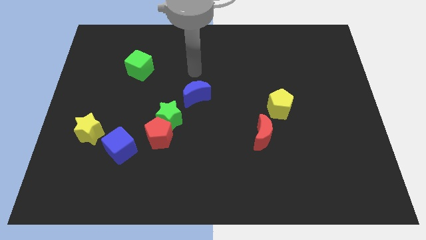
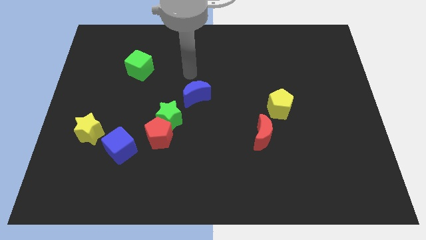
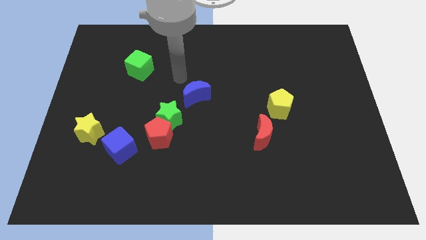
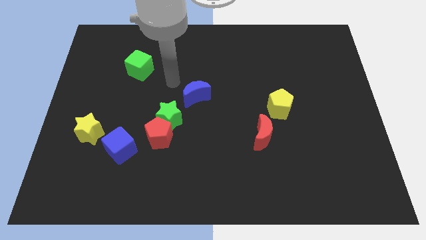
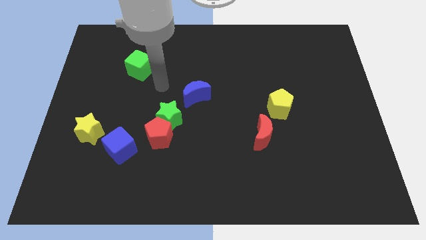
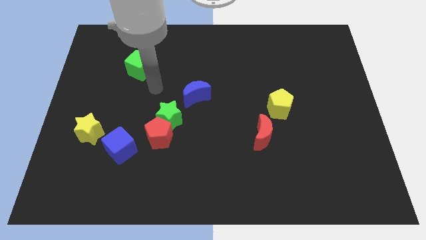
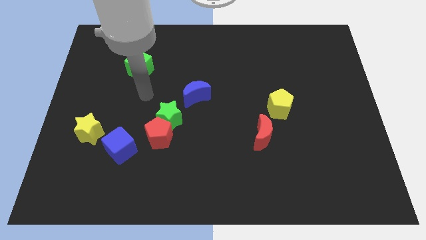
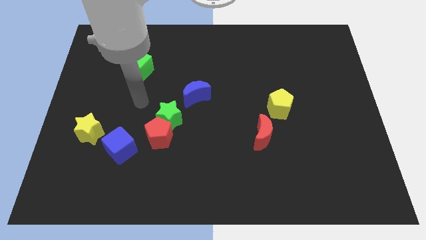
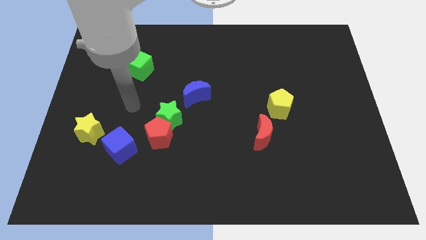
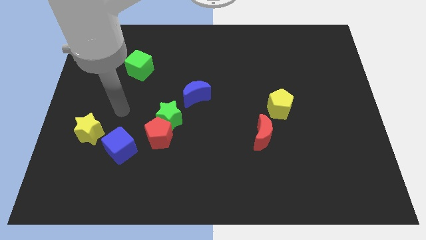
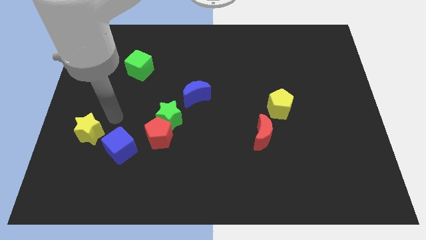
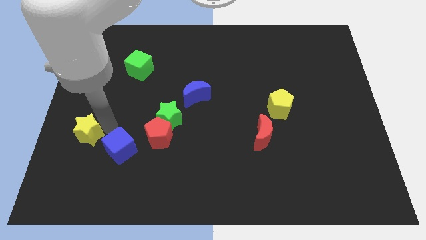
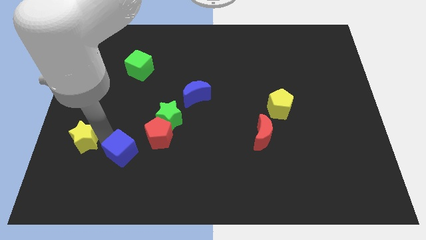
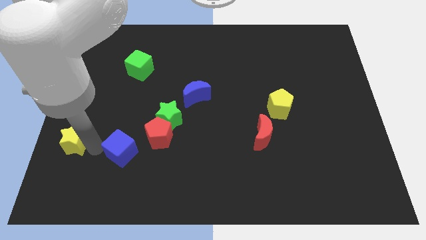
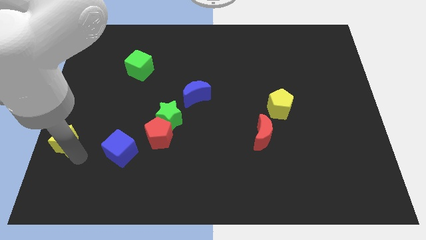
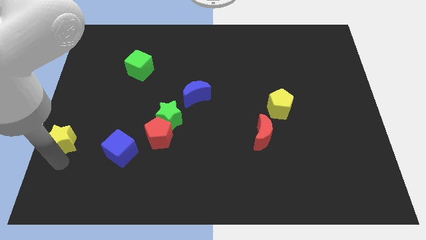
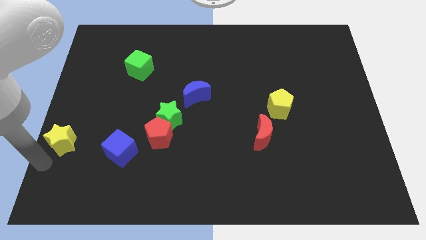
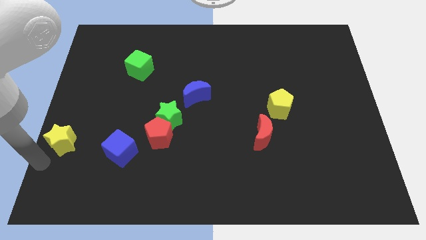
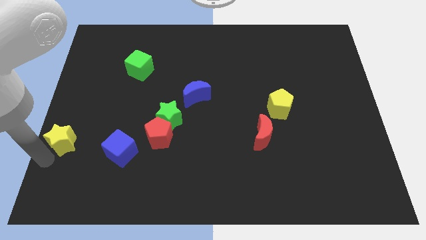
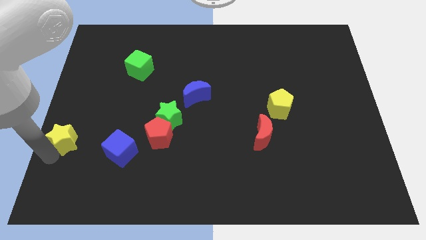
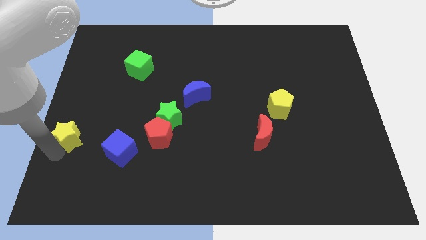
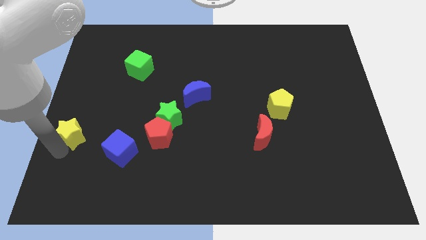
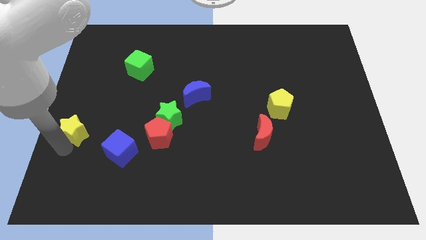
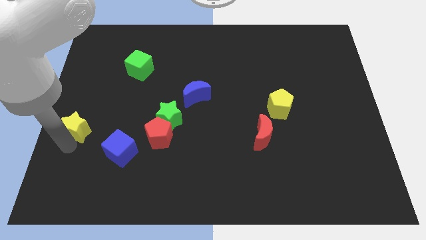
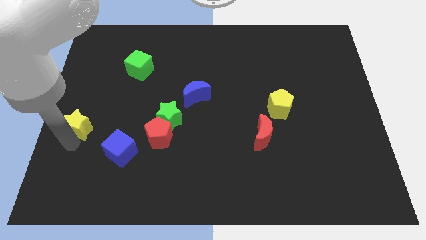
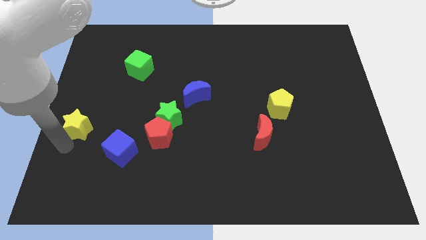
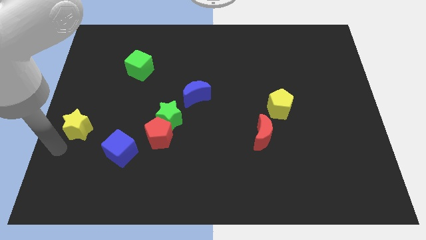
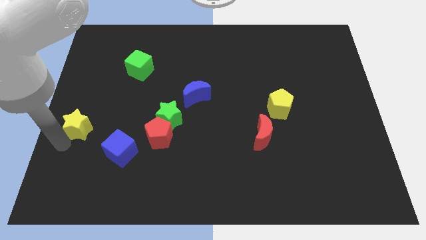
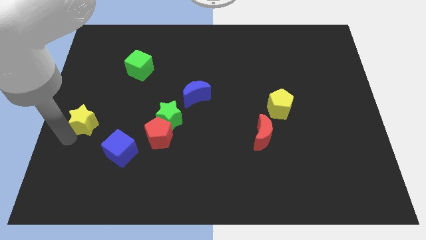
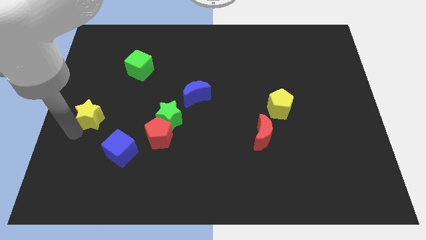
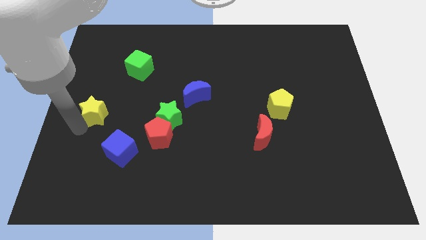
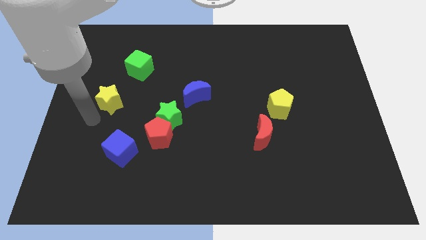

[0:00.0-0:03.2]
slide the yellow star slightly up

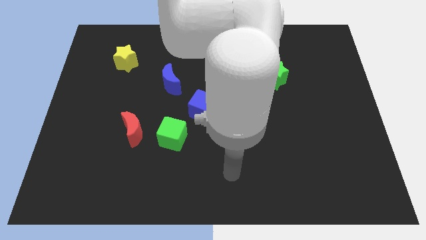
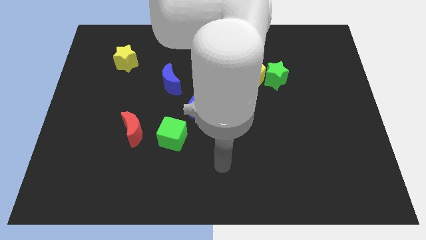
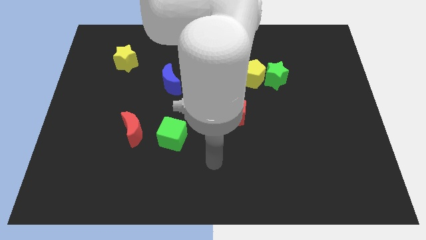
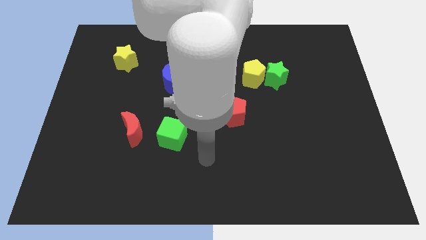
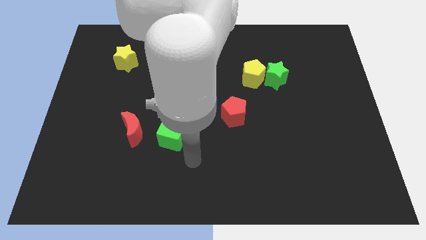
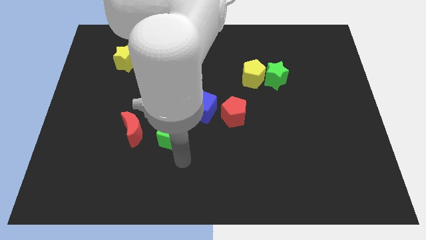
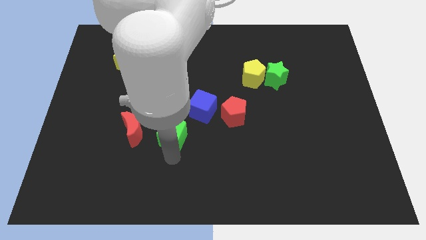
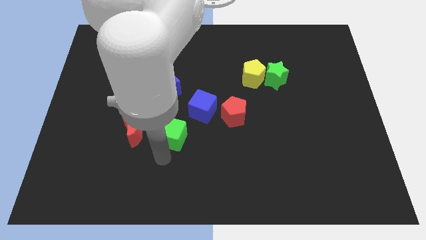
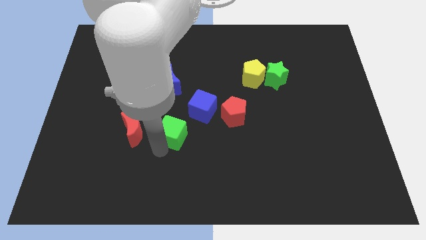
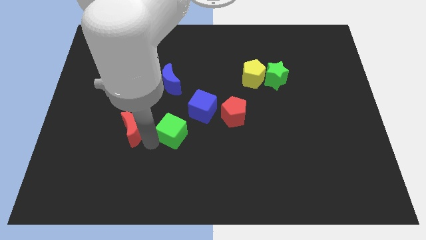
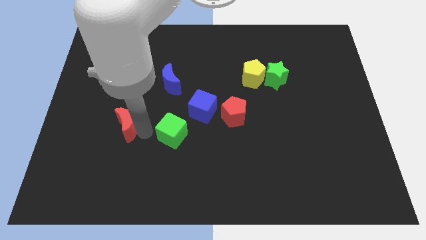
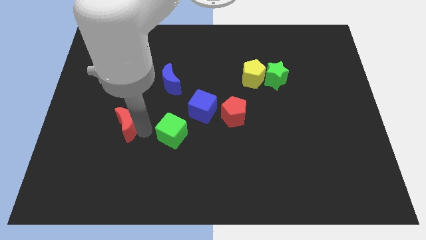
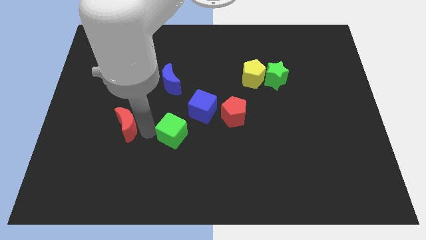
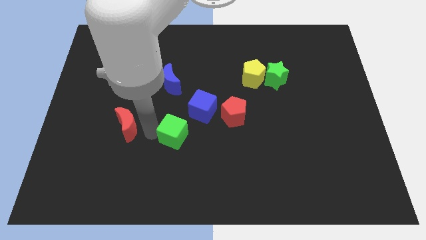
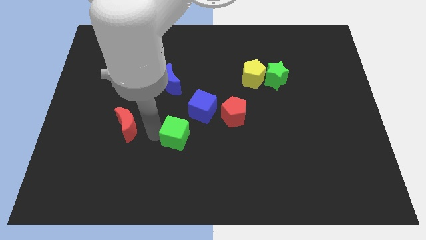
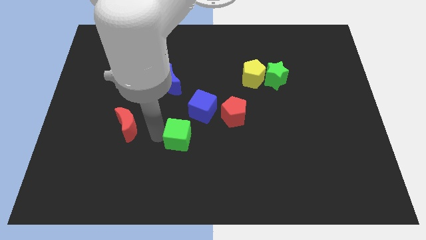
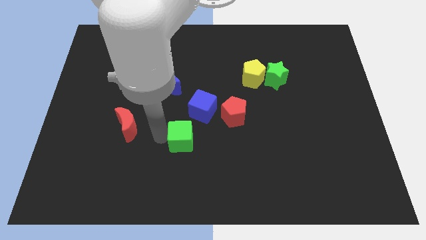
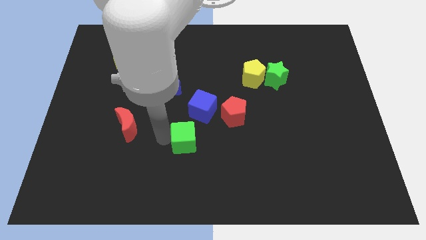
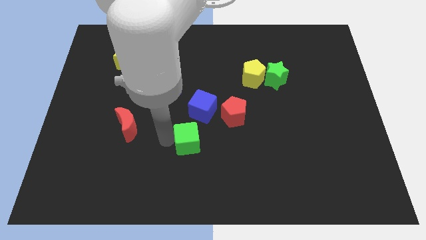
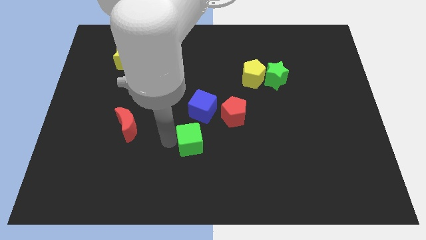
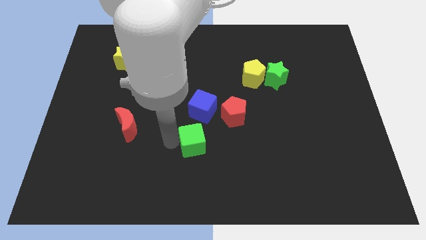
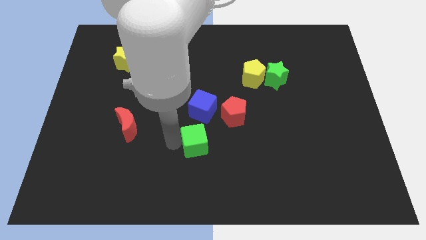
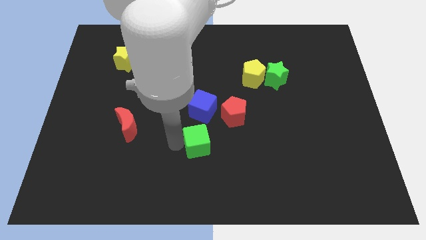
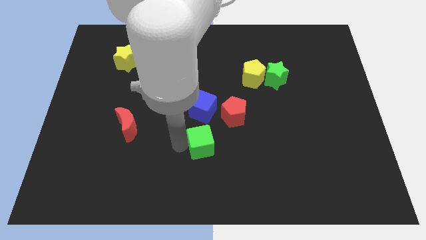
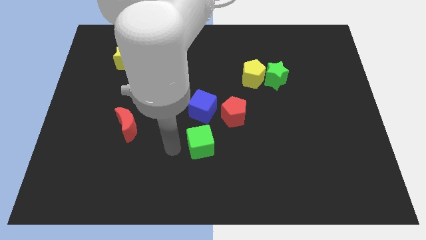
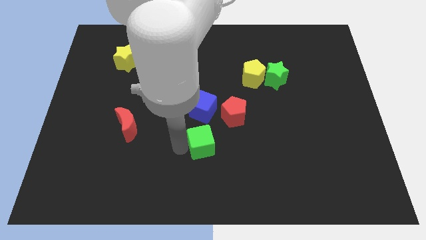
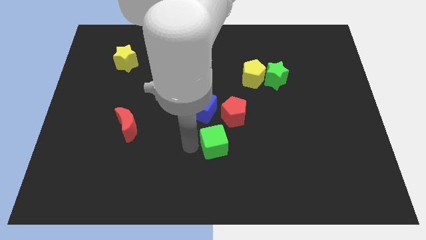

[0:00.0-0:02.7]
slightly move the green cube to the right

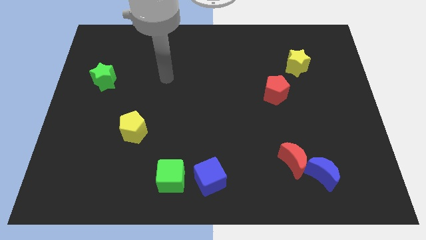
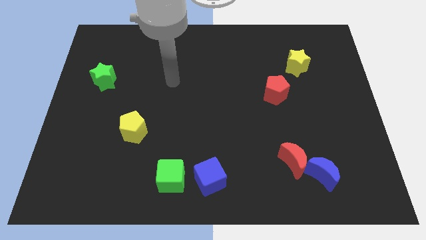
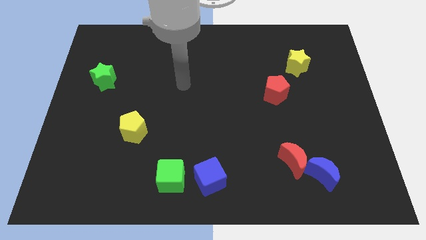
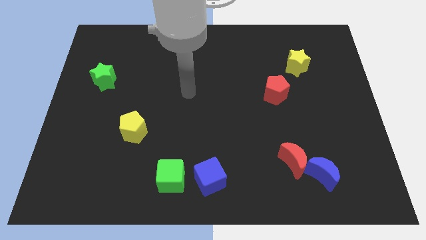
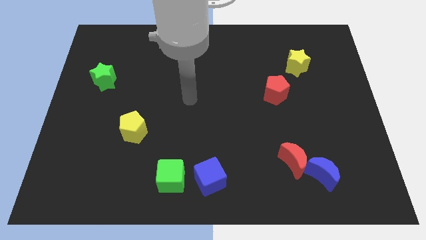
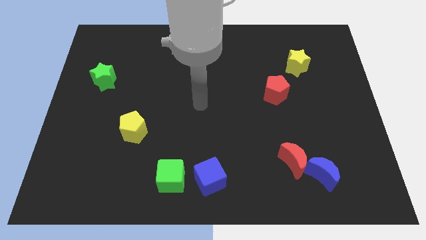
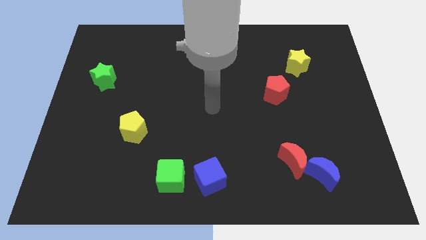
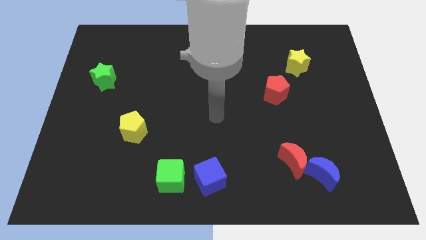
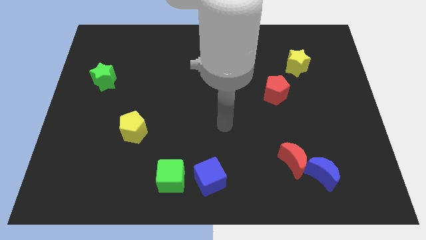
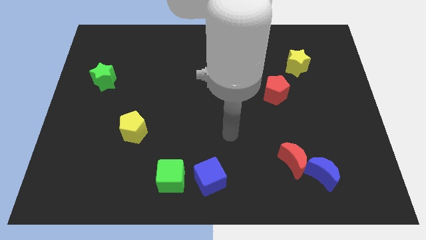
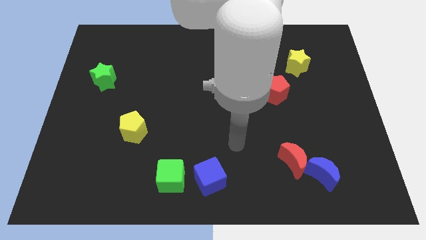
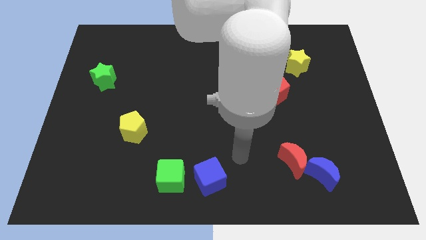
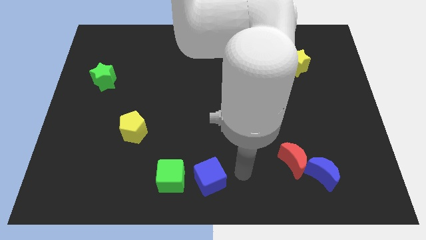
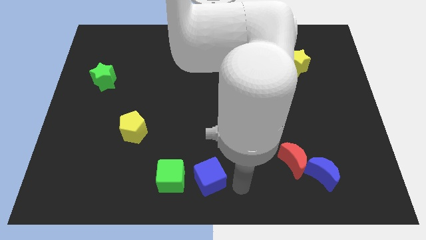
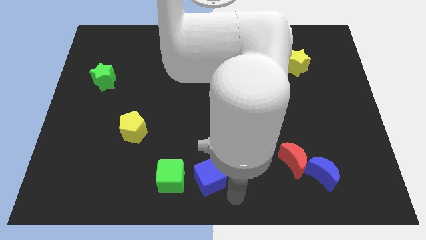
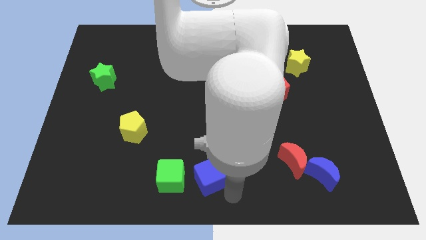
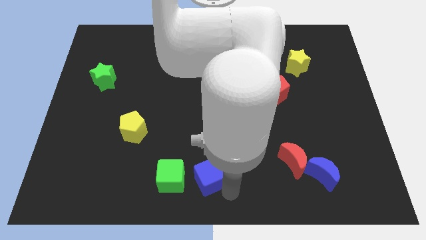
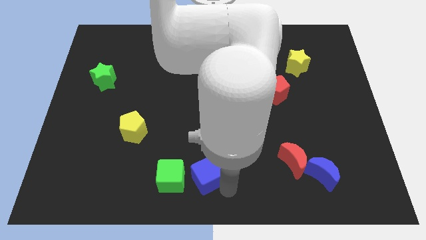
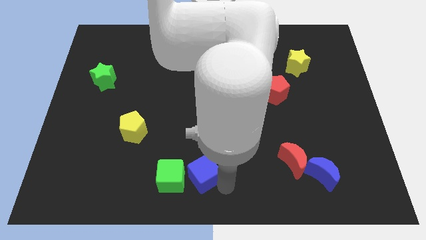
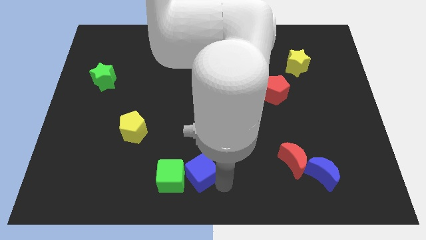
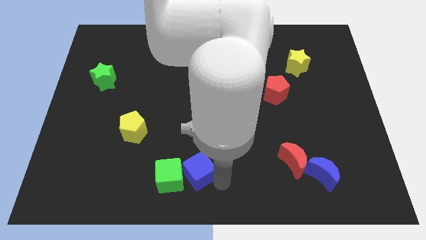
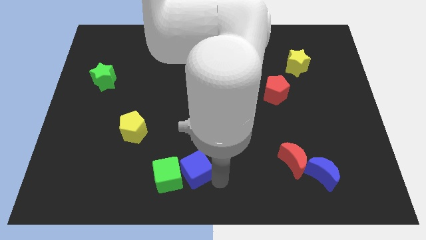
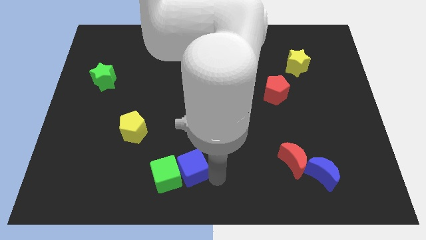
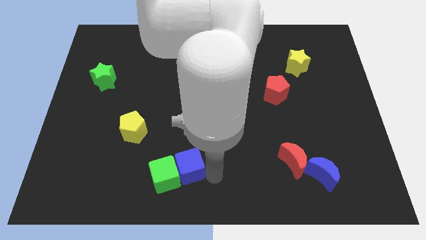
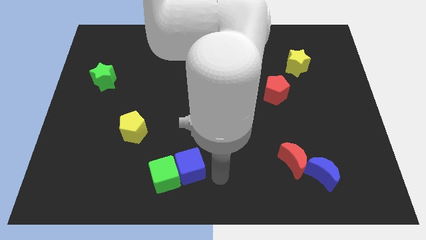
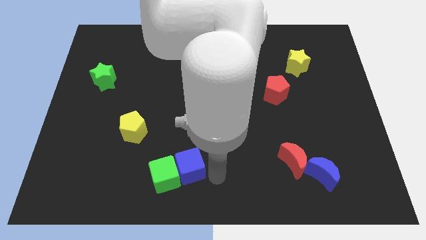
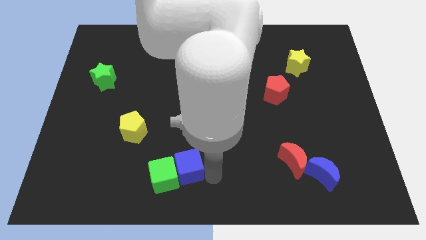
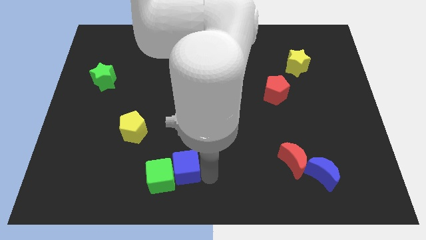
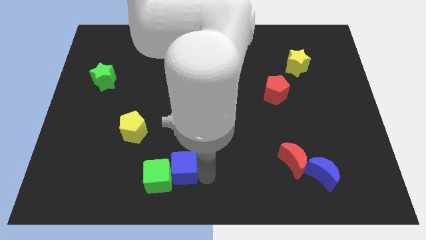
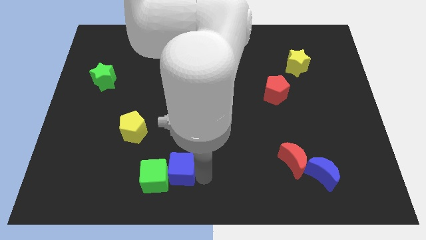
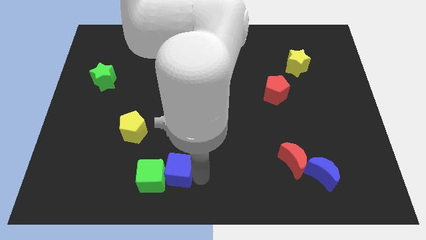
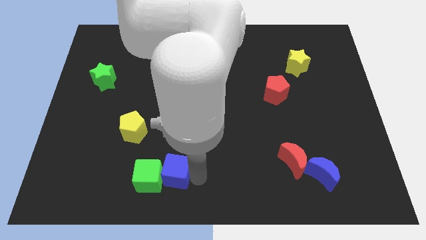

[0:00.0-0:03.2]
move the blue cube somewhat to the left
